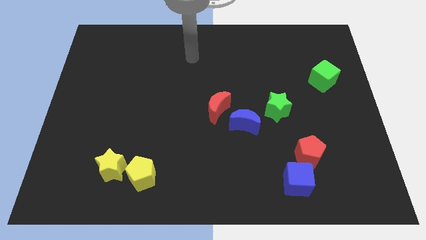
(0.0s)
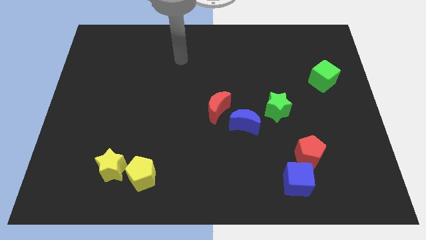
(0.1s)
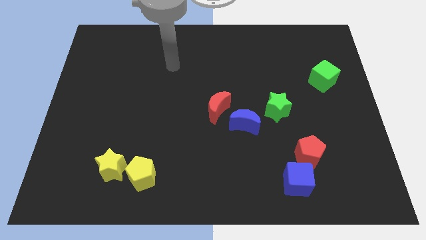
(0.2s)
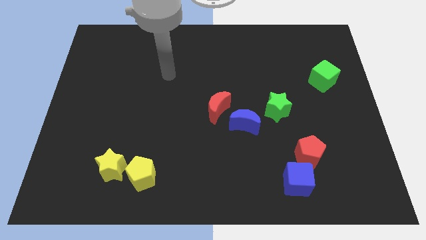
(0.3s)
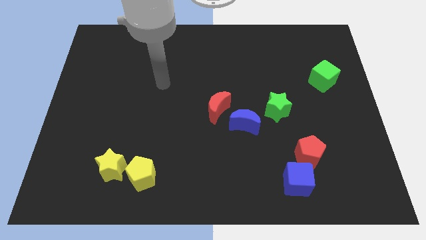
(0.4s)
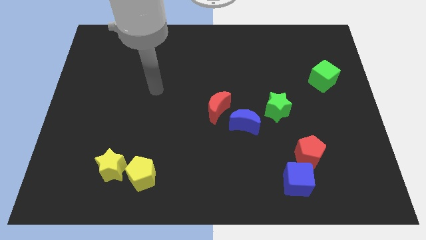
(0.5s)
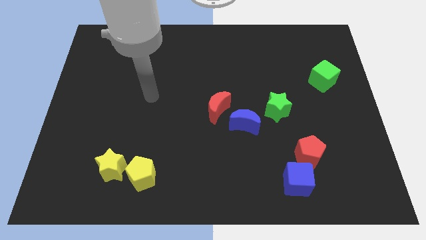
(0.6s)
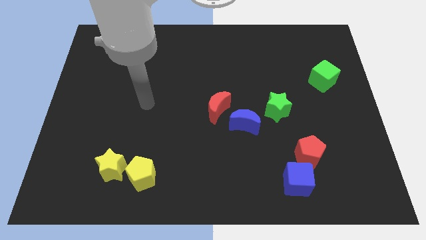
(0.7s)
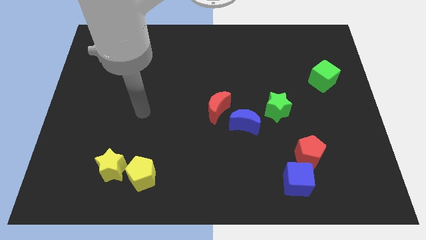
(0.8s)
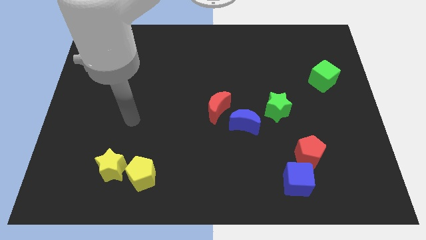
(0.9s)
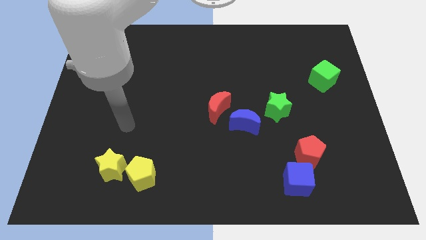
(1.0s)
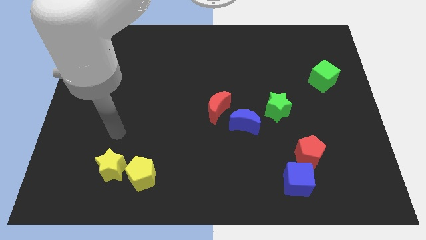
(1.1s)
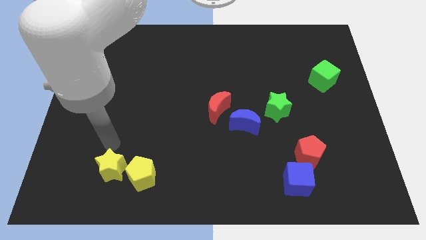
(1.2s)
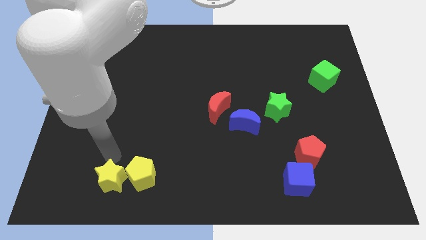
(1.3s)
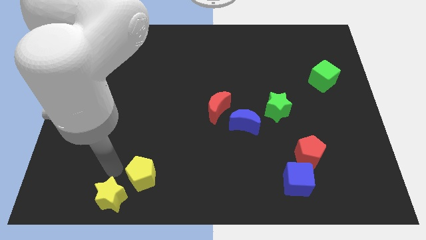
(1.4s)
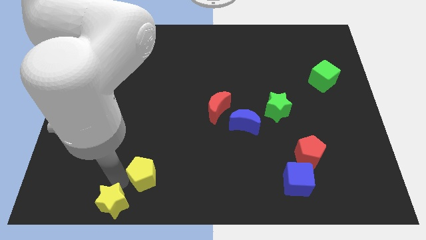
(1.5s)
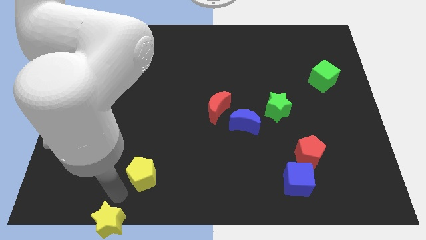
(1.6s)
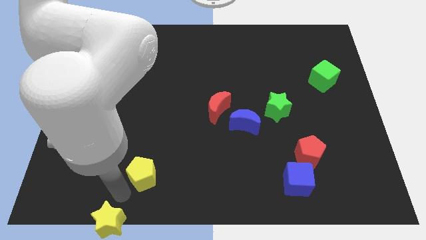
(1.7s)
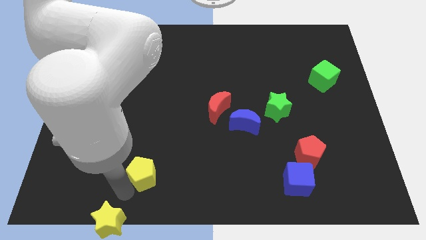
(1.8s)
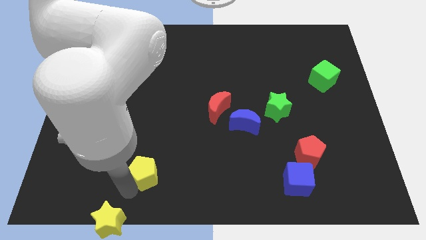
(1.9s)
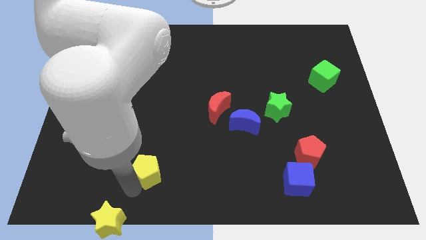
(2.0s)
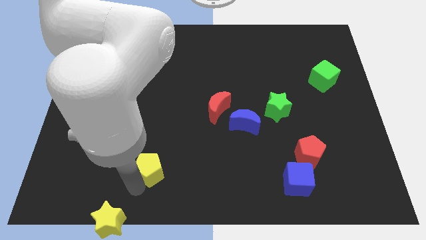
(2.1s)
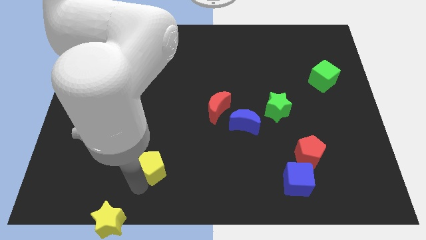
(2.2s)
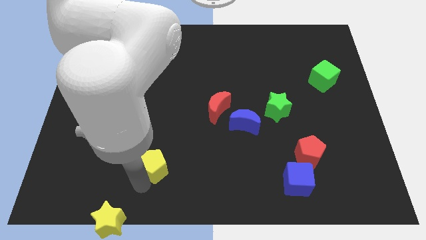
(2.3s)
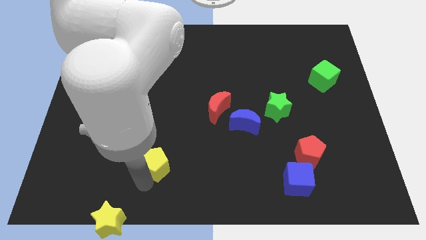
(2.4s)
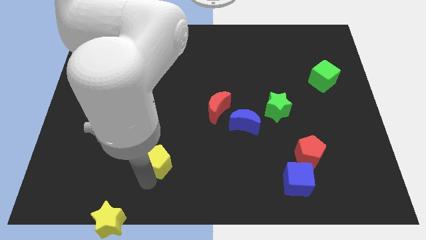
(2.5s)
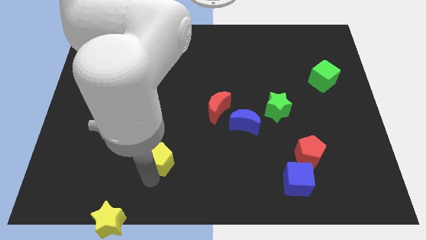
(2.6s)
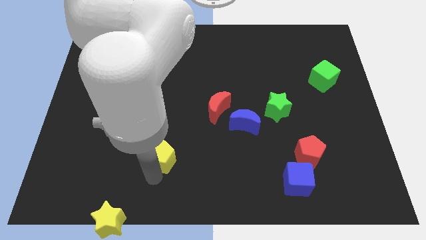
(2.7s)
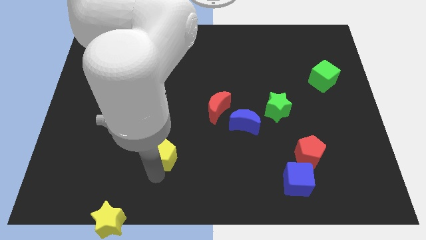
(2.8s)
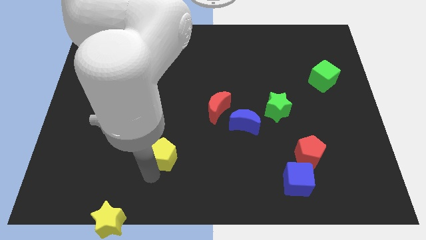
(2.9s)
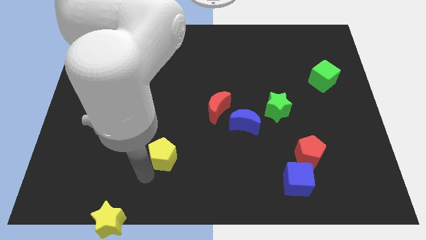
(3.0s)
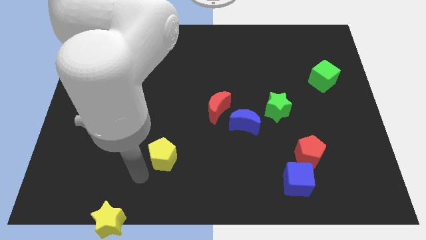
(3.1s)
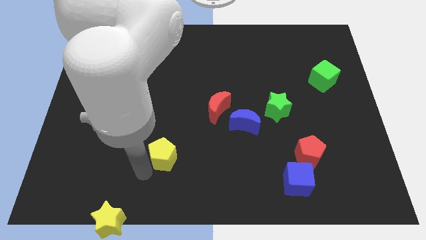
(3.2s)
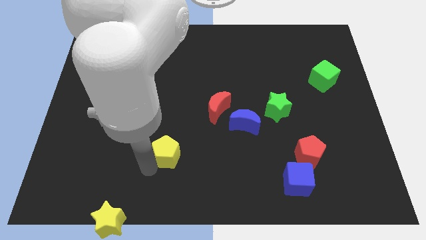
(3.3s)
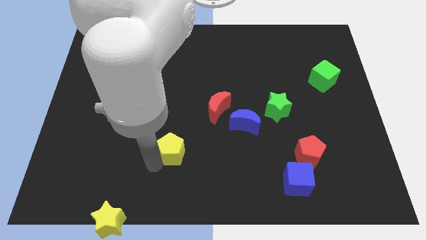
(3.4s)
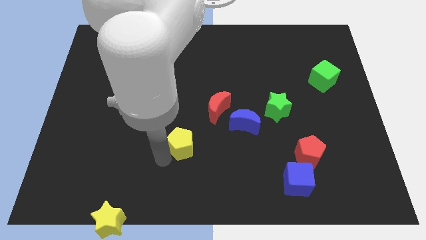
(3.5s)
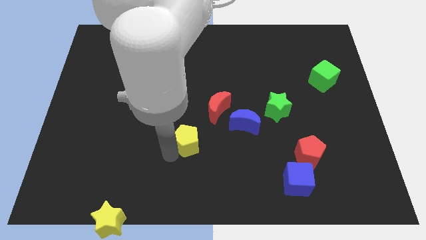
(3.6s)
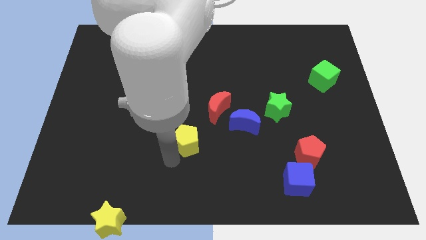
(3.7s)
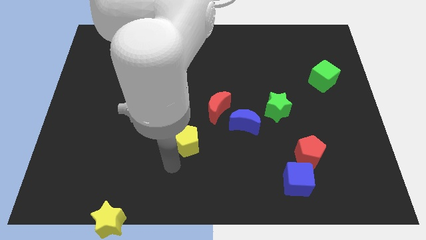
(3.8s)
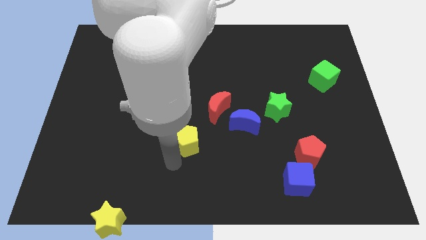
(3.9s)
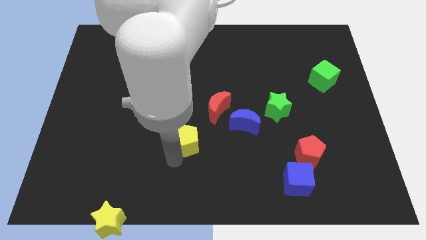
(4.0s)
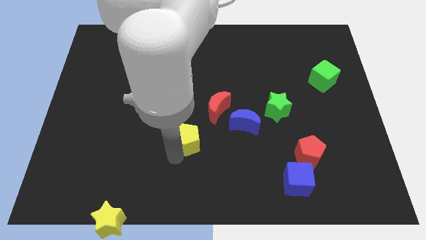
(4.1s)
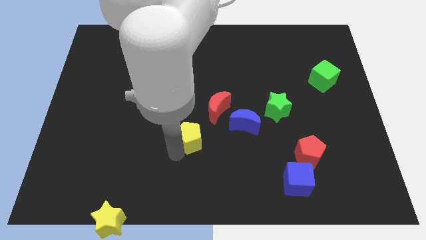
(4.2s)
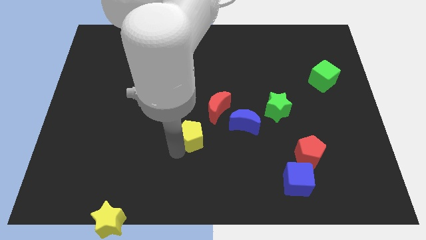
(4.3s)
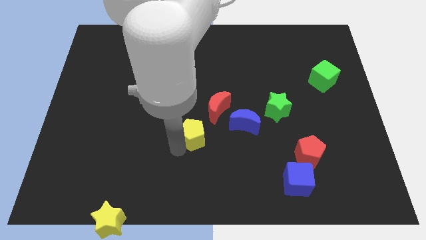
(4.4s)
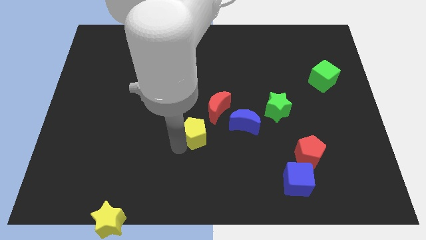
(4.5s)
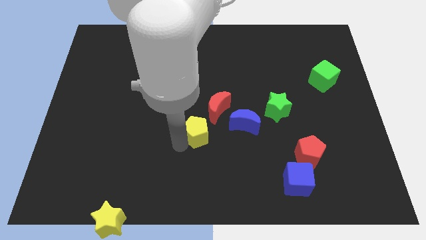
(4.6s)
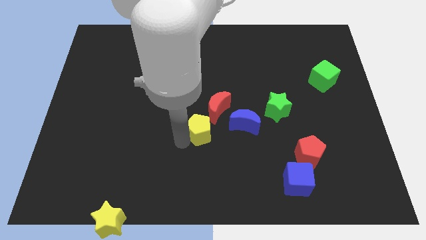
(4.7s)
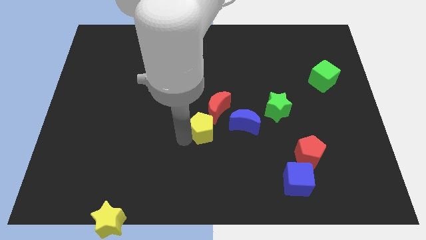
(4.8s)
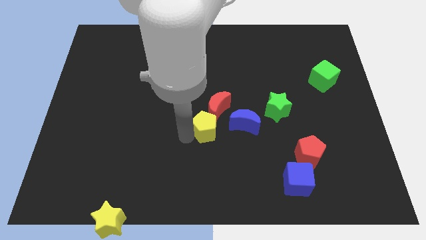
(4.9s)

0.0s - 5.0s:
push the yellow pentagon close to the red moon

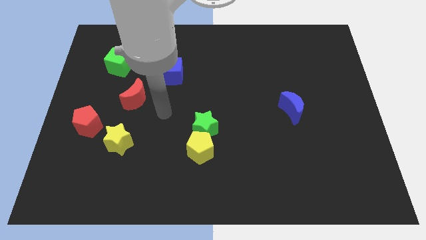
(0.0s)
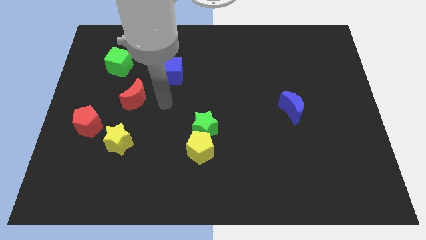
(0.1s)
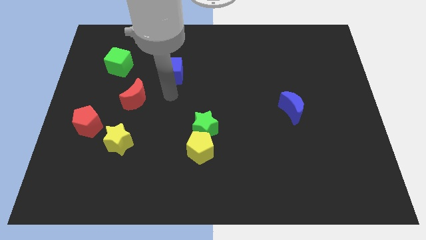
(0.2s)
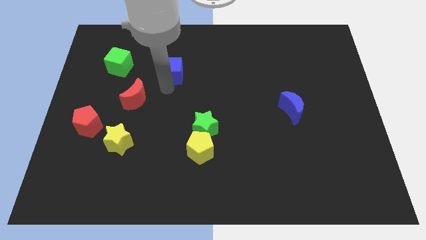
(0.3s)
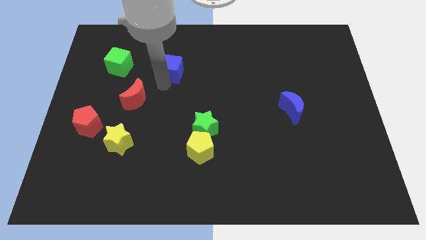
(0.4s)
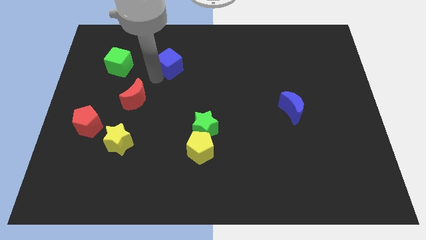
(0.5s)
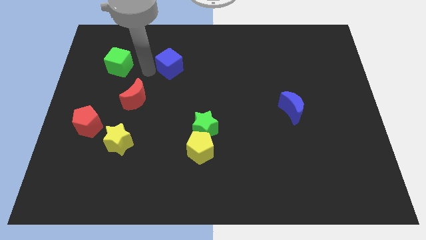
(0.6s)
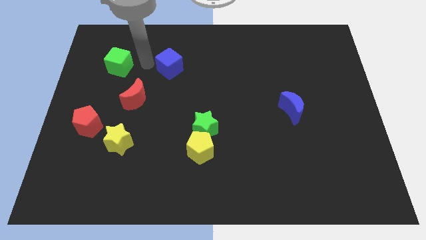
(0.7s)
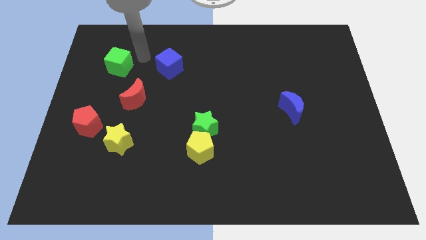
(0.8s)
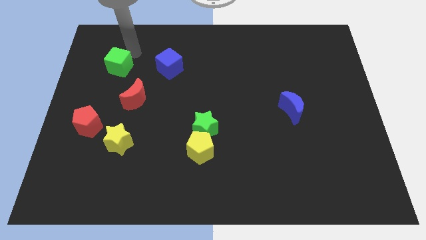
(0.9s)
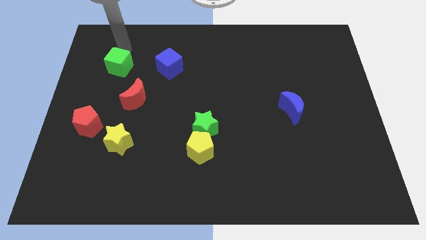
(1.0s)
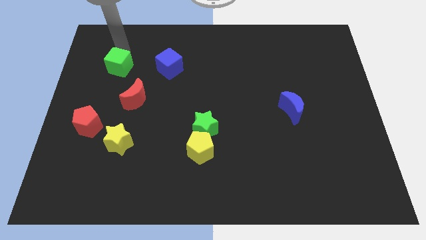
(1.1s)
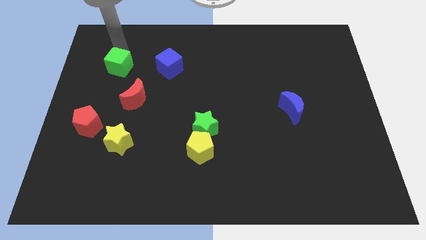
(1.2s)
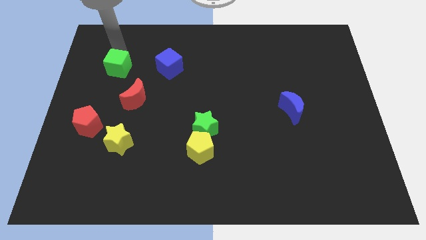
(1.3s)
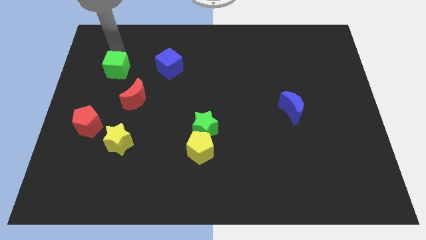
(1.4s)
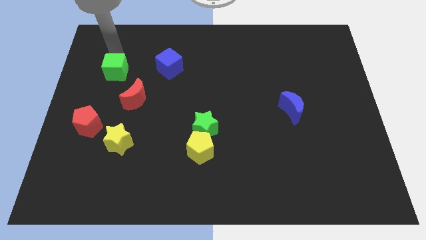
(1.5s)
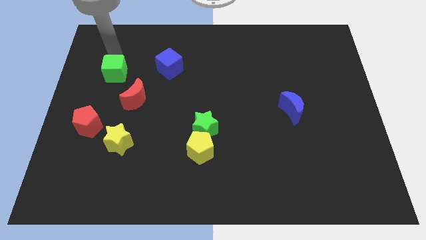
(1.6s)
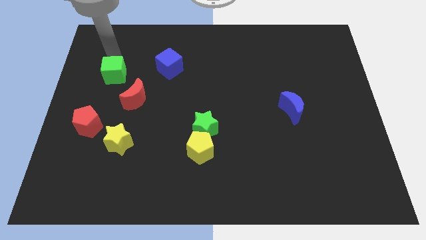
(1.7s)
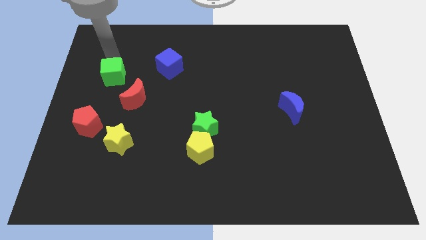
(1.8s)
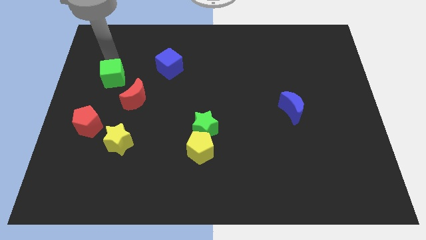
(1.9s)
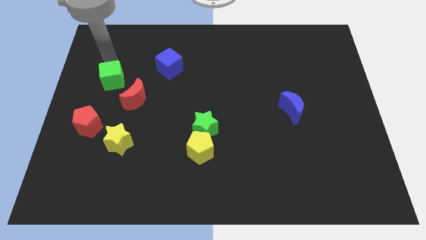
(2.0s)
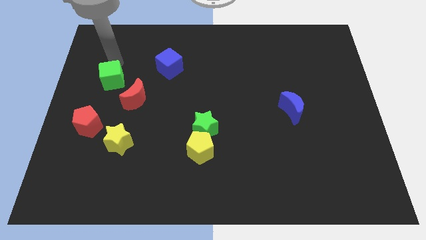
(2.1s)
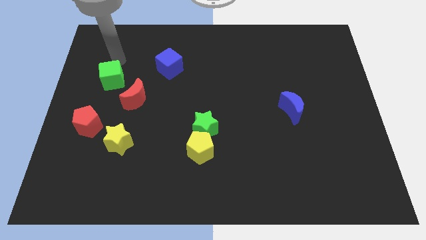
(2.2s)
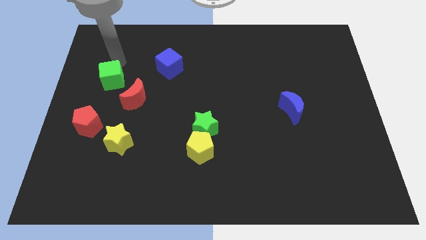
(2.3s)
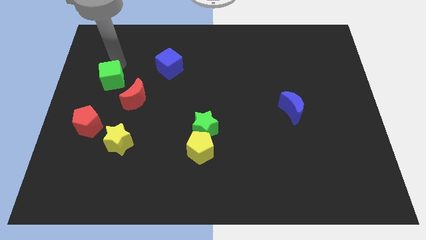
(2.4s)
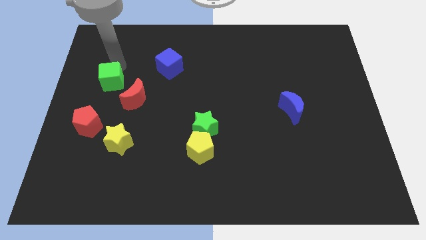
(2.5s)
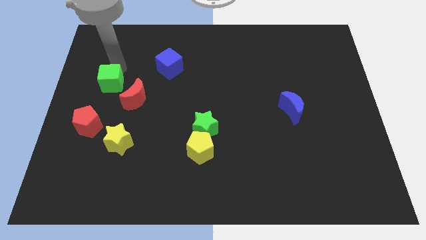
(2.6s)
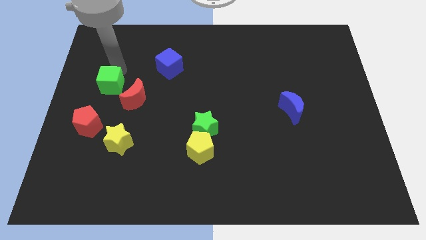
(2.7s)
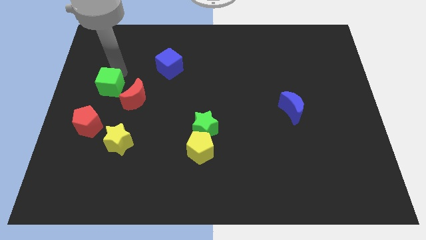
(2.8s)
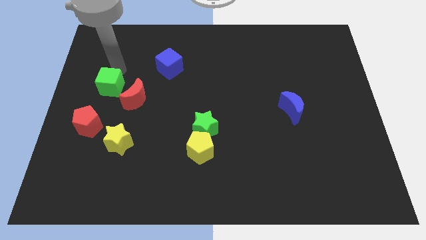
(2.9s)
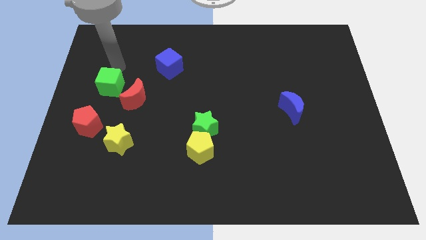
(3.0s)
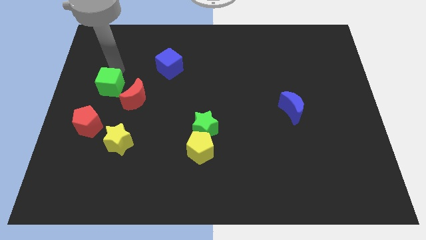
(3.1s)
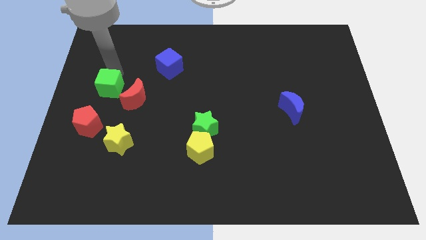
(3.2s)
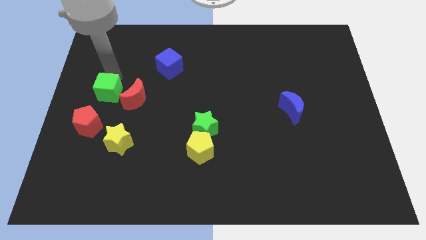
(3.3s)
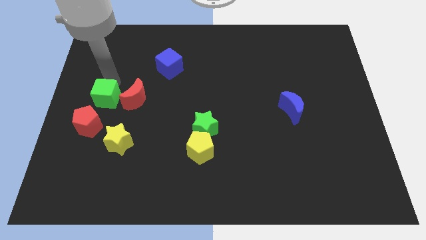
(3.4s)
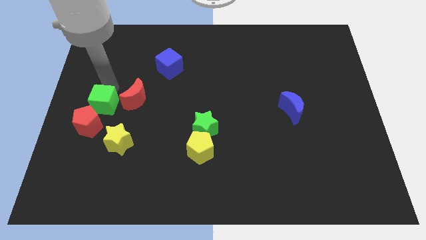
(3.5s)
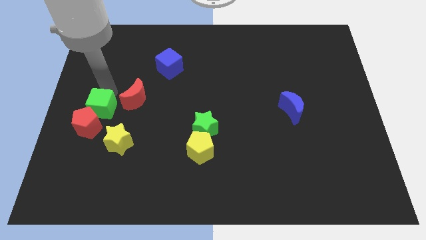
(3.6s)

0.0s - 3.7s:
move the green cube close to the red pentagon
